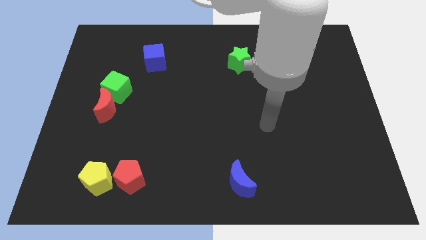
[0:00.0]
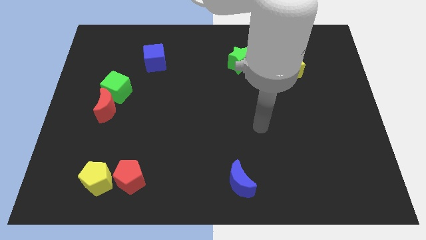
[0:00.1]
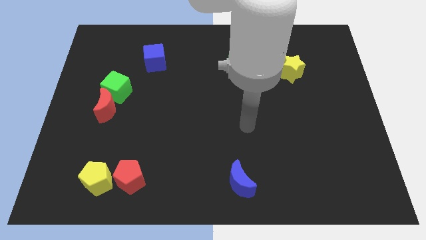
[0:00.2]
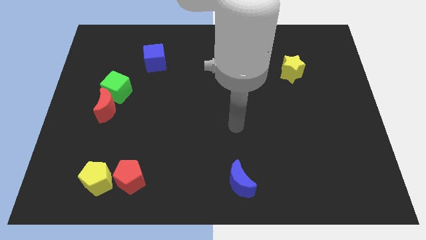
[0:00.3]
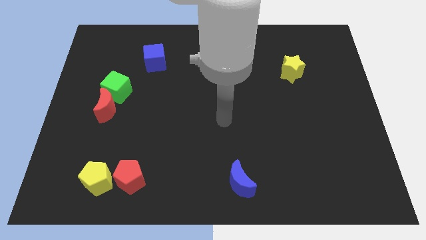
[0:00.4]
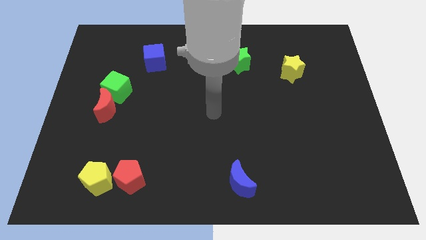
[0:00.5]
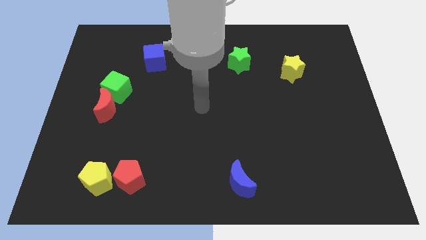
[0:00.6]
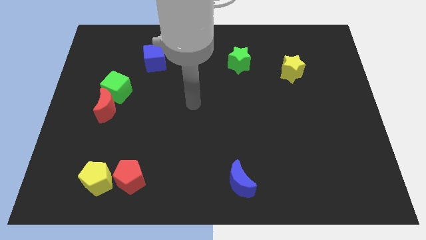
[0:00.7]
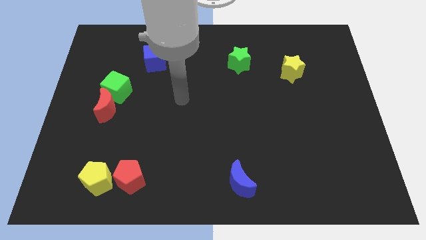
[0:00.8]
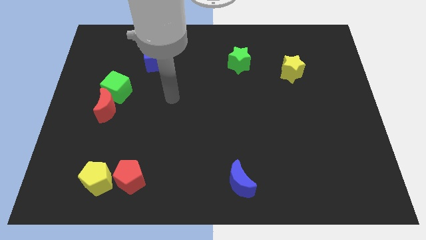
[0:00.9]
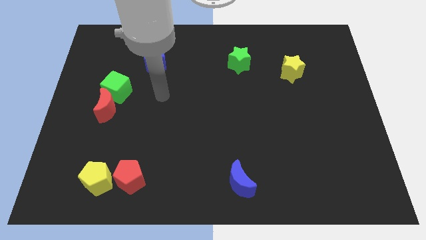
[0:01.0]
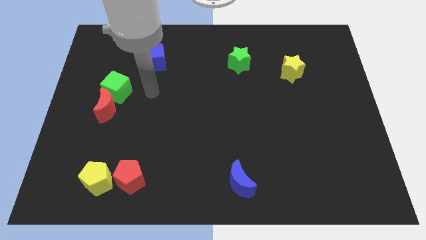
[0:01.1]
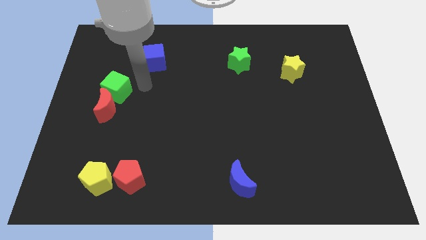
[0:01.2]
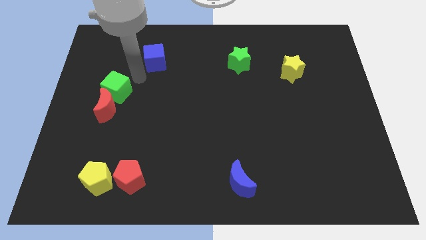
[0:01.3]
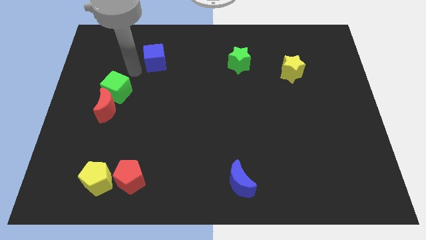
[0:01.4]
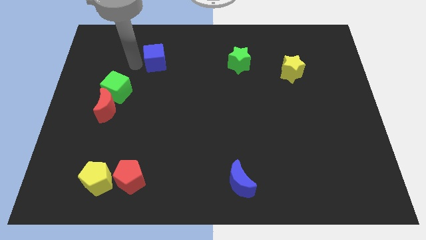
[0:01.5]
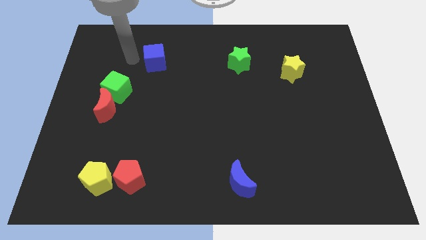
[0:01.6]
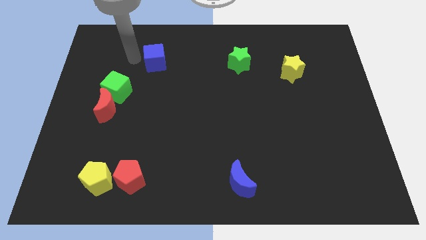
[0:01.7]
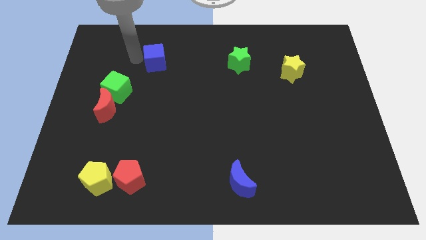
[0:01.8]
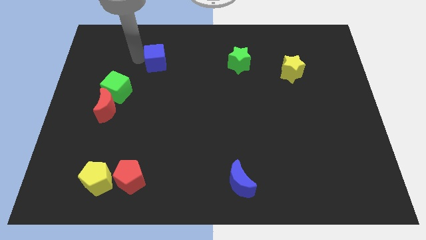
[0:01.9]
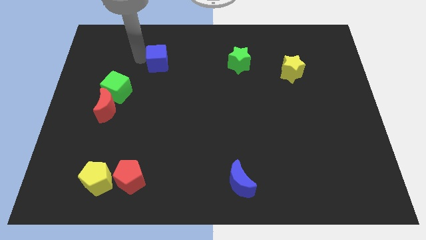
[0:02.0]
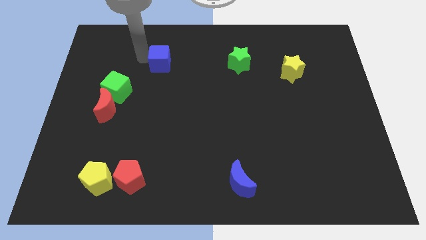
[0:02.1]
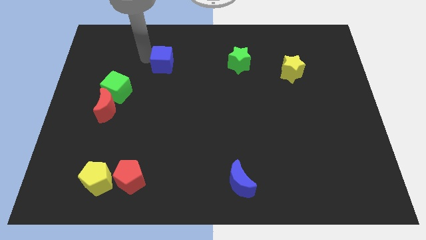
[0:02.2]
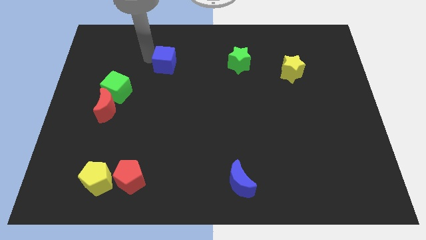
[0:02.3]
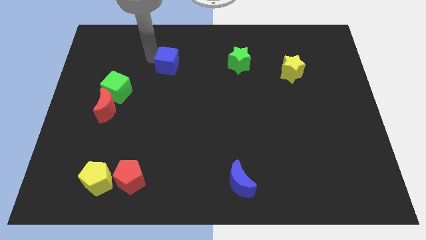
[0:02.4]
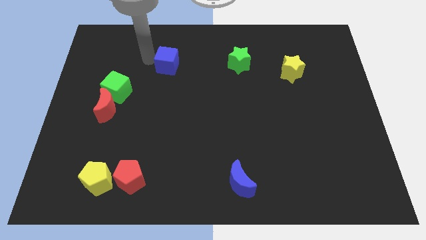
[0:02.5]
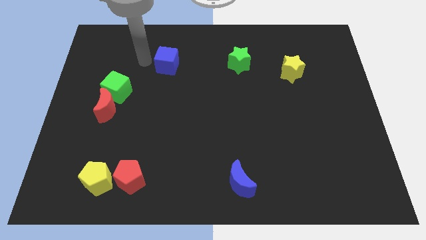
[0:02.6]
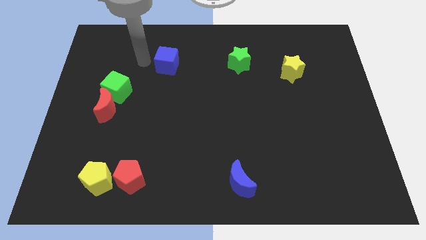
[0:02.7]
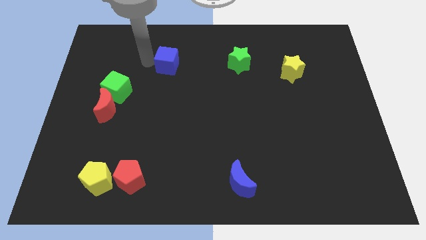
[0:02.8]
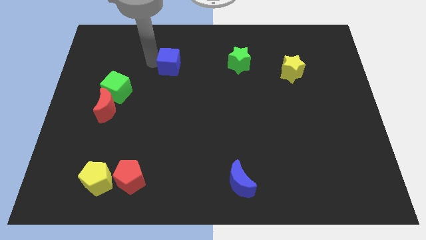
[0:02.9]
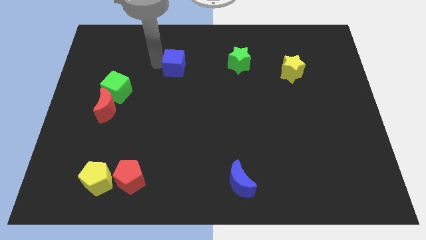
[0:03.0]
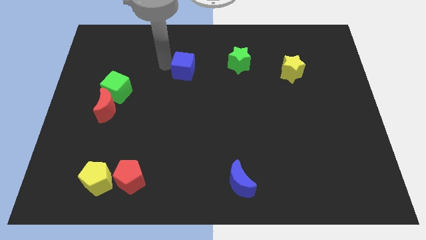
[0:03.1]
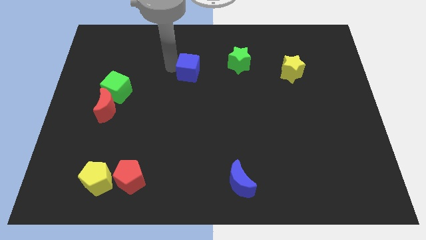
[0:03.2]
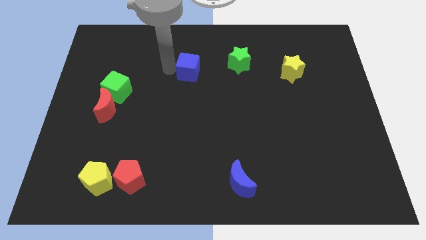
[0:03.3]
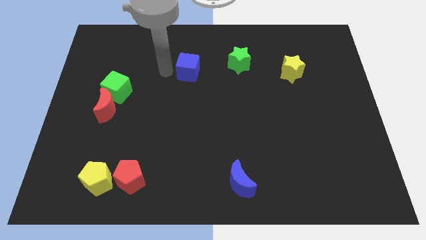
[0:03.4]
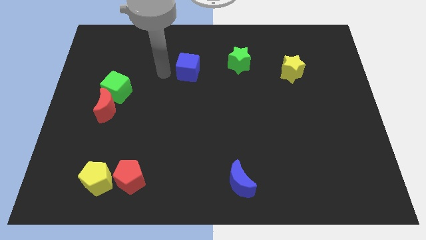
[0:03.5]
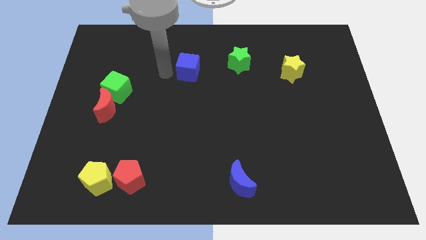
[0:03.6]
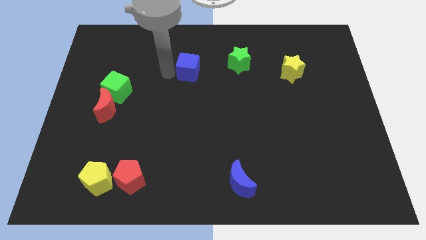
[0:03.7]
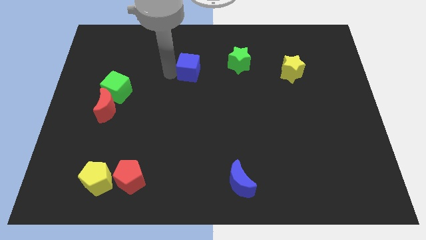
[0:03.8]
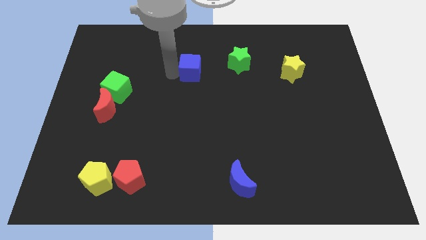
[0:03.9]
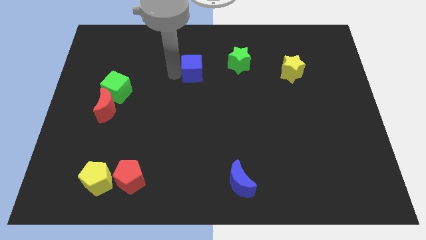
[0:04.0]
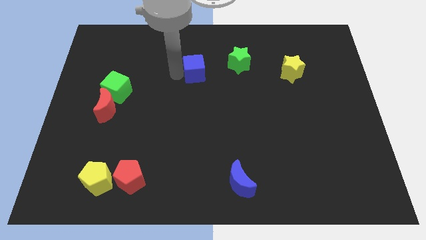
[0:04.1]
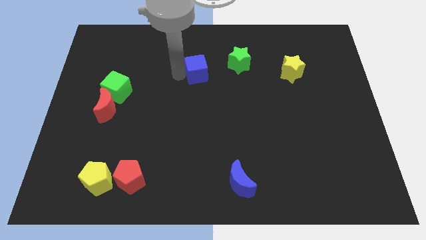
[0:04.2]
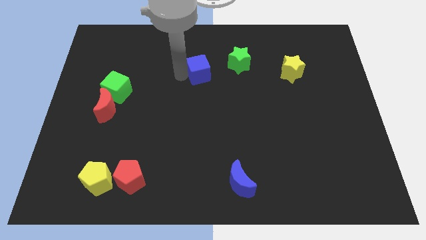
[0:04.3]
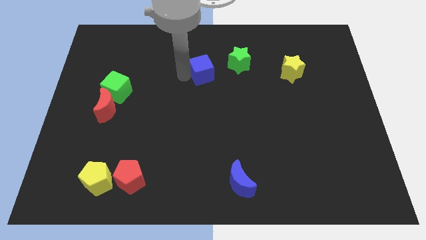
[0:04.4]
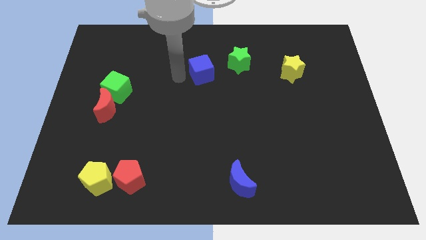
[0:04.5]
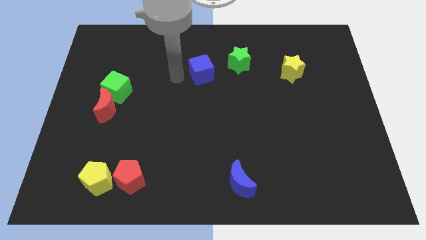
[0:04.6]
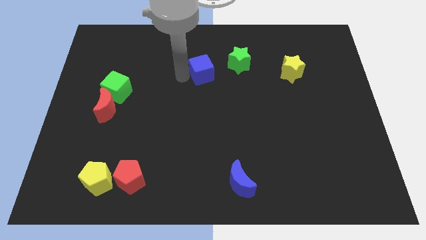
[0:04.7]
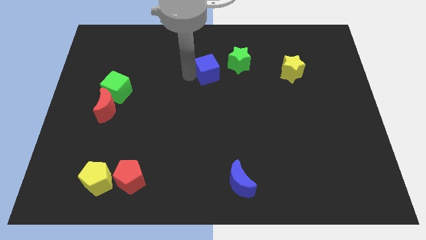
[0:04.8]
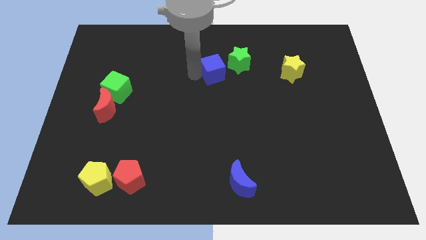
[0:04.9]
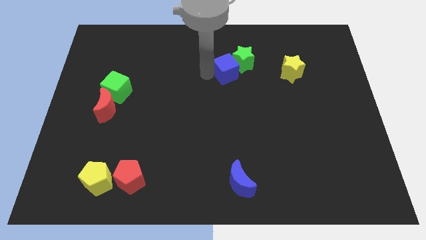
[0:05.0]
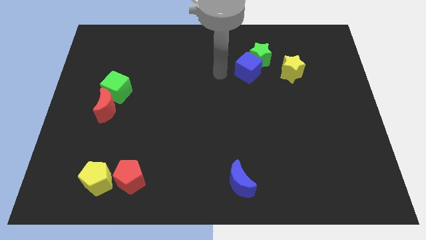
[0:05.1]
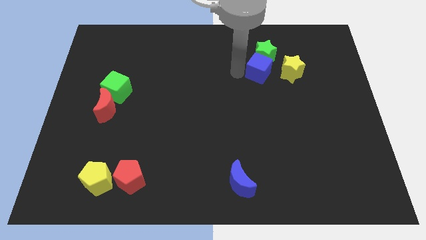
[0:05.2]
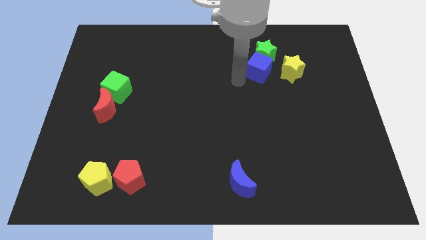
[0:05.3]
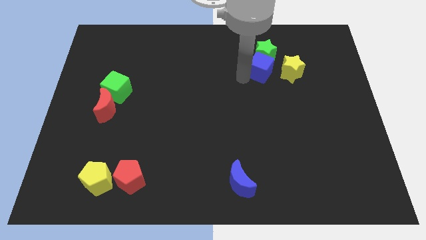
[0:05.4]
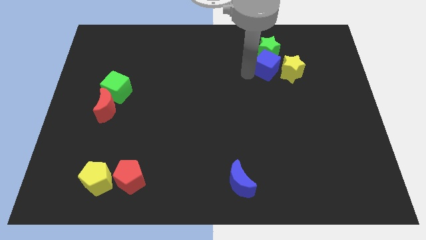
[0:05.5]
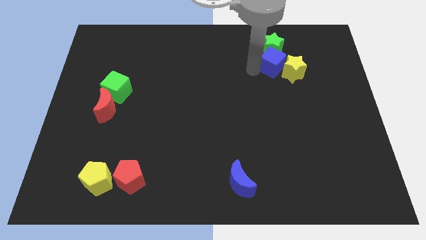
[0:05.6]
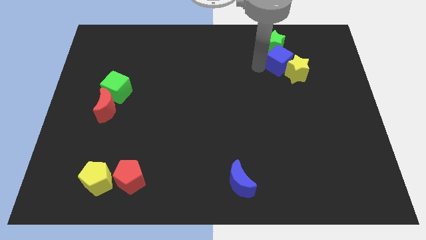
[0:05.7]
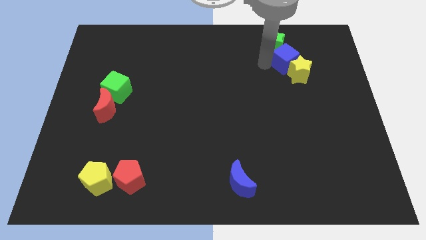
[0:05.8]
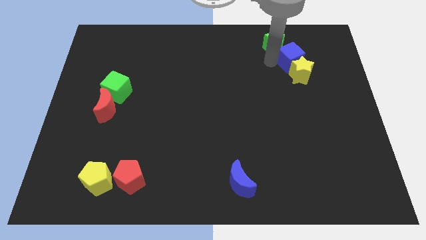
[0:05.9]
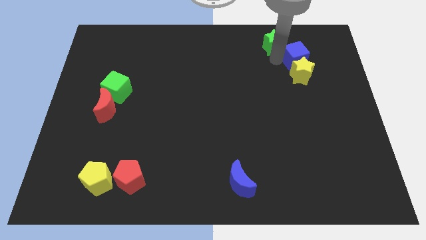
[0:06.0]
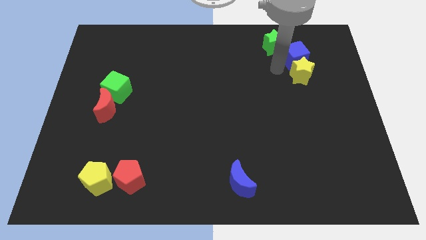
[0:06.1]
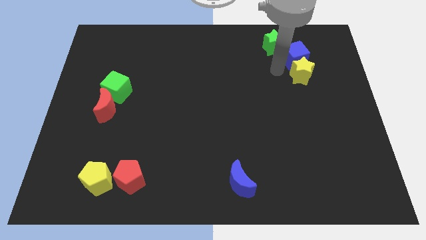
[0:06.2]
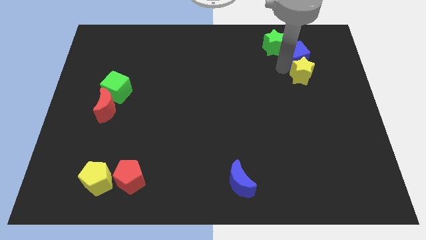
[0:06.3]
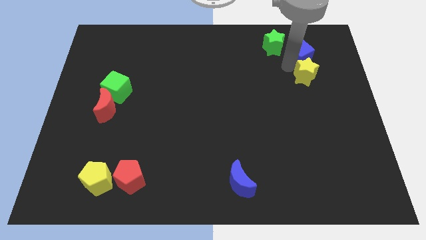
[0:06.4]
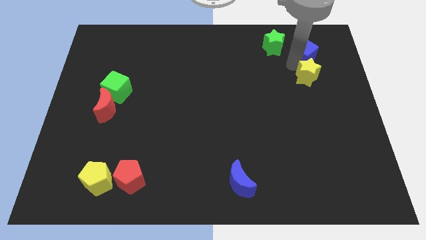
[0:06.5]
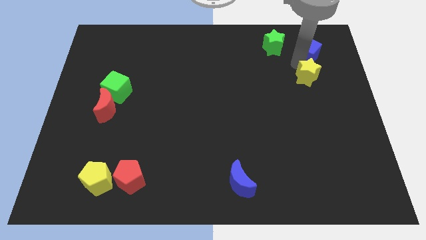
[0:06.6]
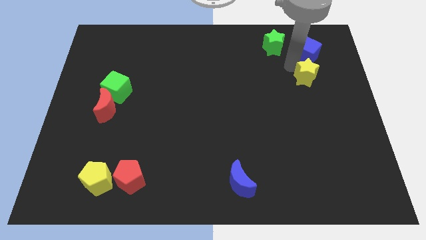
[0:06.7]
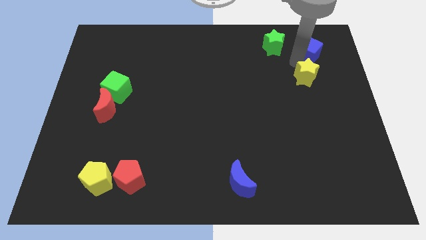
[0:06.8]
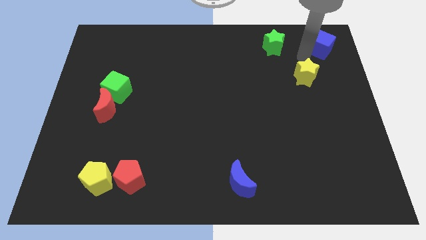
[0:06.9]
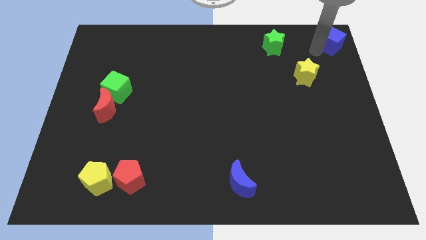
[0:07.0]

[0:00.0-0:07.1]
slide the blue cube to the top right of the board
